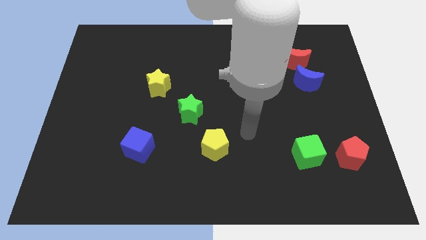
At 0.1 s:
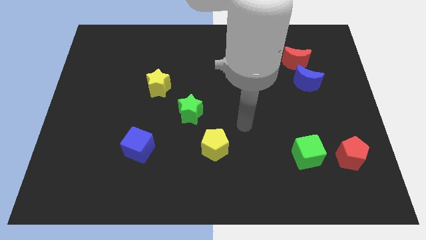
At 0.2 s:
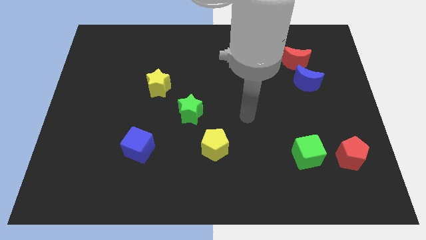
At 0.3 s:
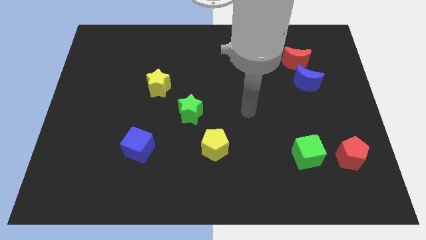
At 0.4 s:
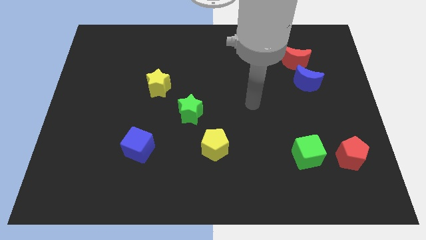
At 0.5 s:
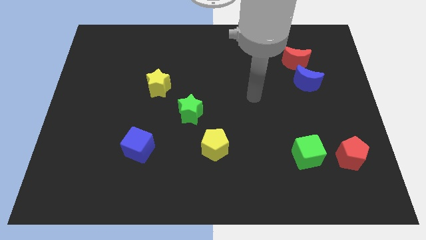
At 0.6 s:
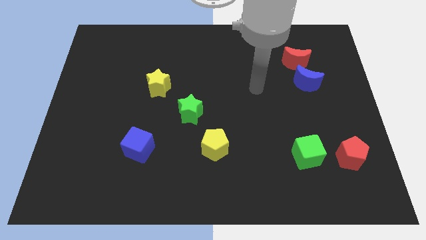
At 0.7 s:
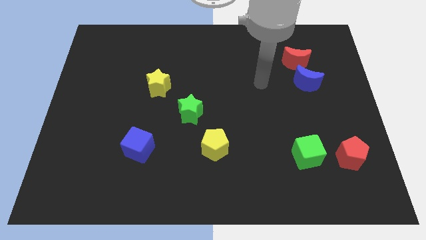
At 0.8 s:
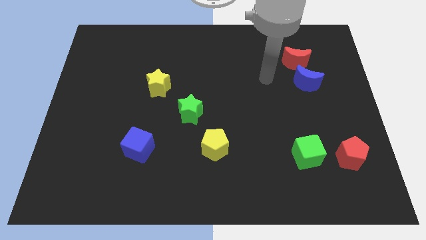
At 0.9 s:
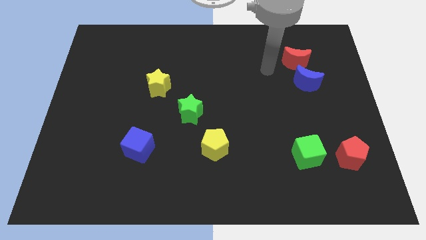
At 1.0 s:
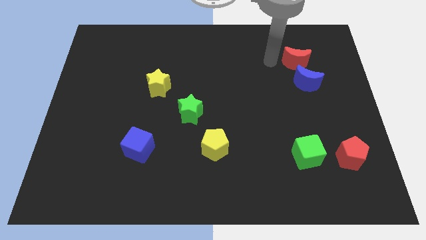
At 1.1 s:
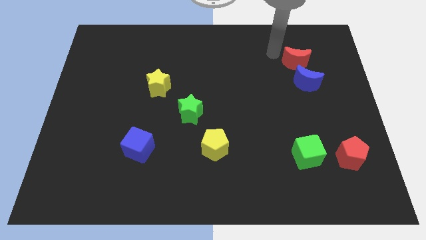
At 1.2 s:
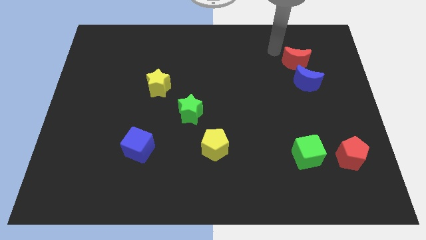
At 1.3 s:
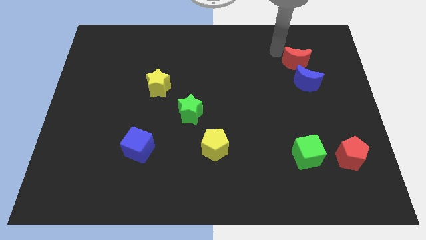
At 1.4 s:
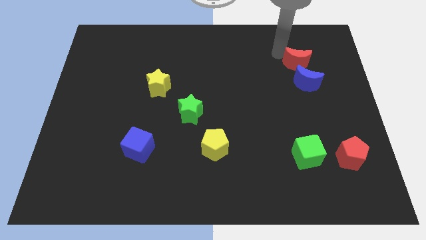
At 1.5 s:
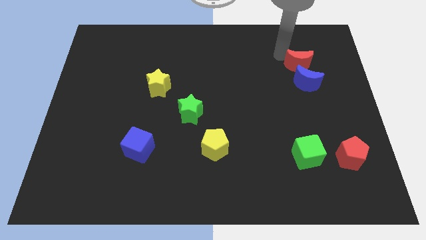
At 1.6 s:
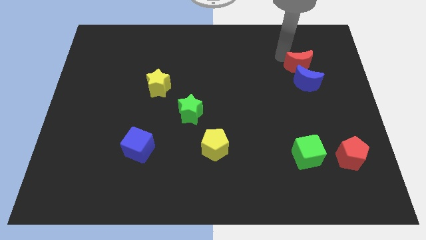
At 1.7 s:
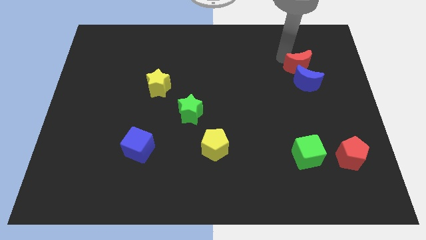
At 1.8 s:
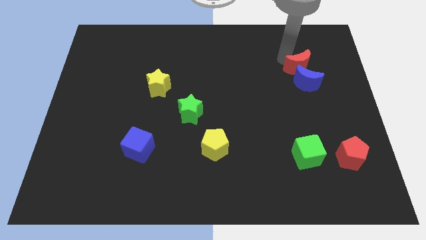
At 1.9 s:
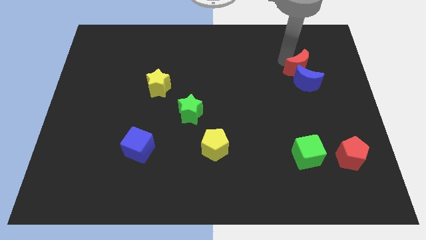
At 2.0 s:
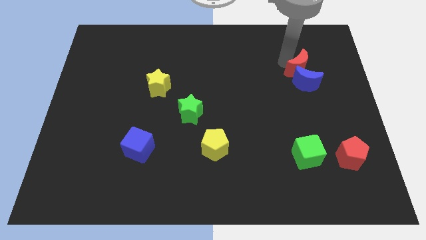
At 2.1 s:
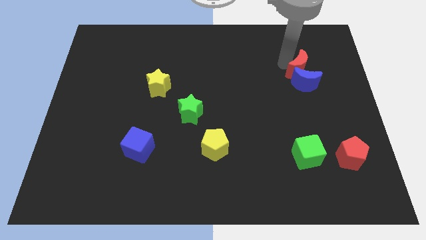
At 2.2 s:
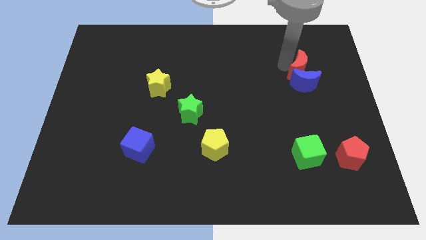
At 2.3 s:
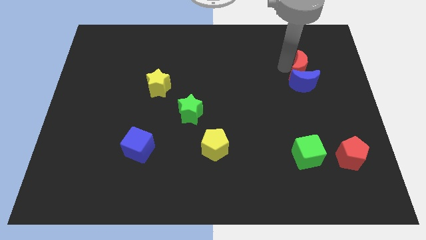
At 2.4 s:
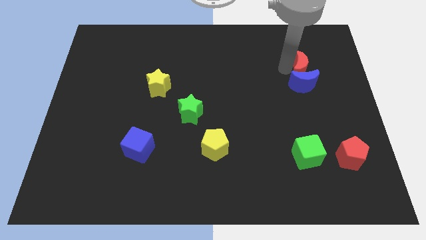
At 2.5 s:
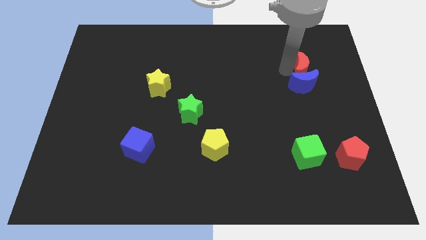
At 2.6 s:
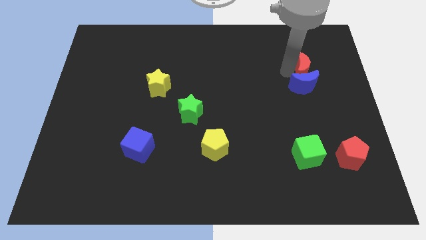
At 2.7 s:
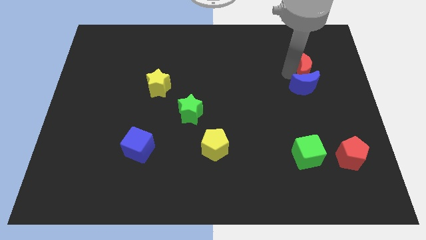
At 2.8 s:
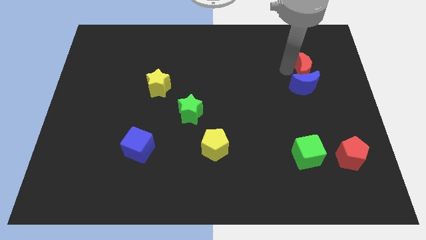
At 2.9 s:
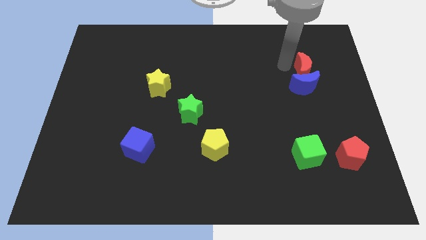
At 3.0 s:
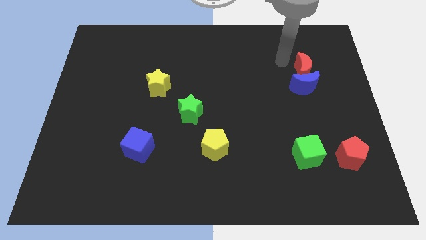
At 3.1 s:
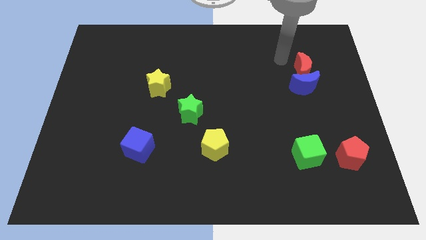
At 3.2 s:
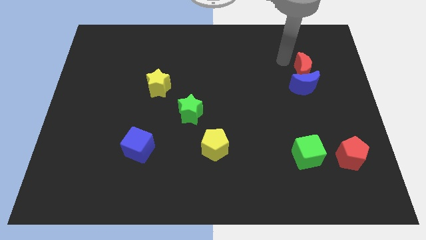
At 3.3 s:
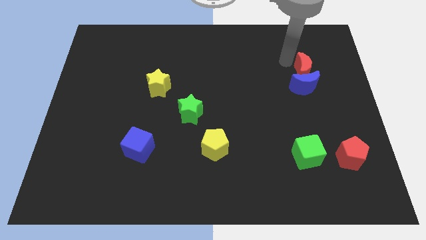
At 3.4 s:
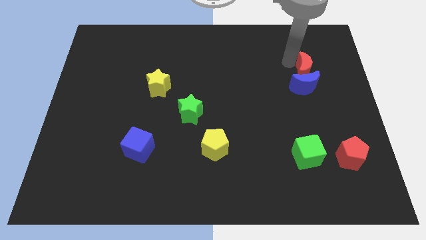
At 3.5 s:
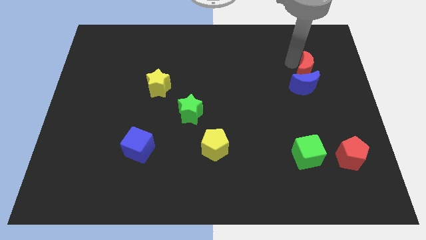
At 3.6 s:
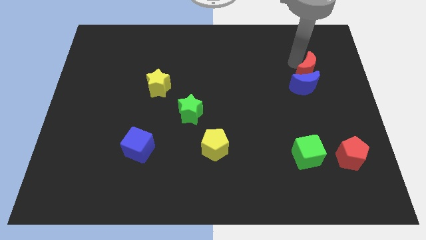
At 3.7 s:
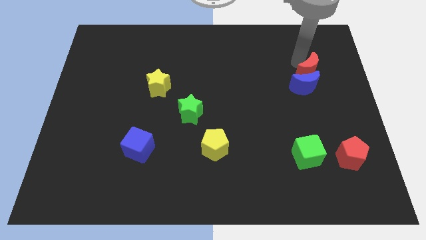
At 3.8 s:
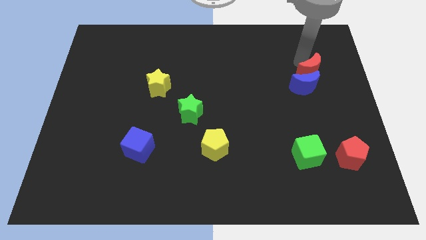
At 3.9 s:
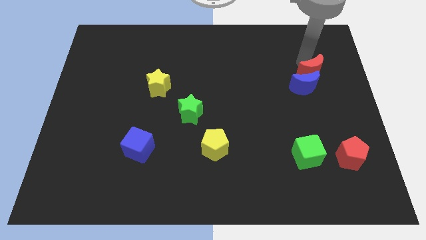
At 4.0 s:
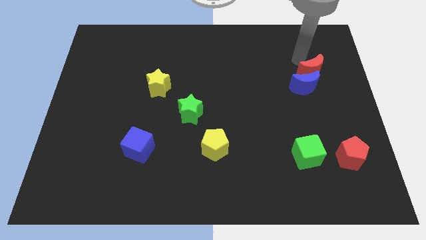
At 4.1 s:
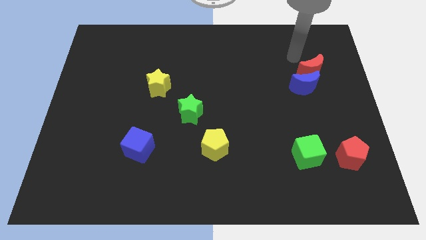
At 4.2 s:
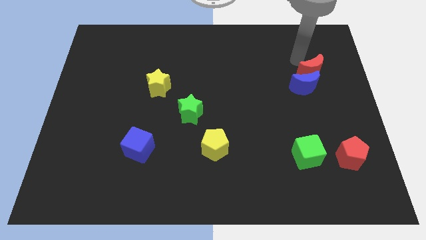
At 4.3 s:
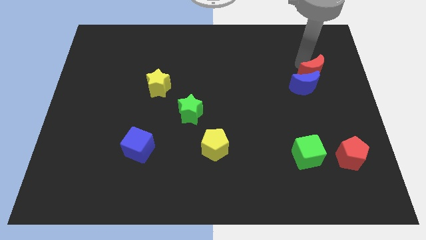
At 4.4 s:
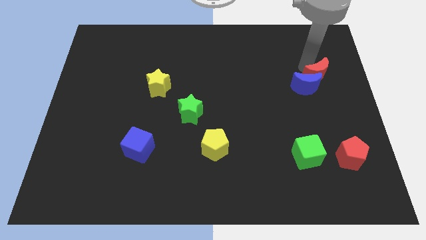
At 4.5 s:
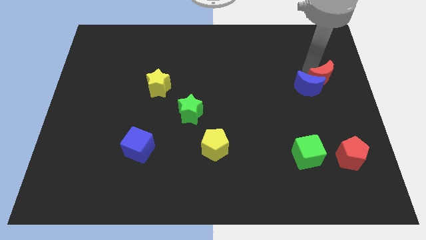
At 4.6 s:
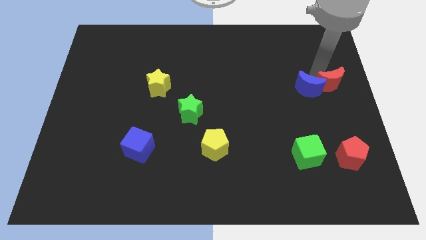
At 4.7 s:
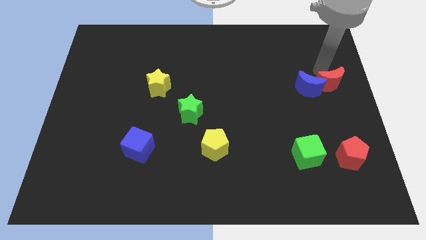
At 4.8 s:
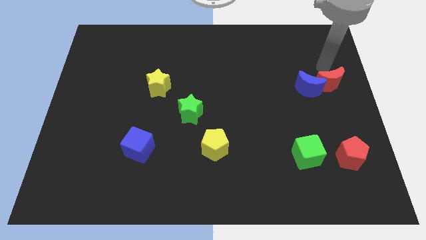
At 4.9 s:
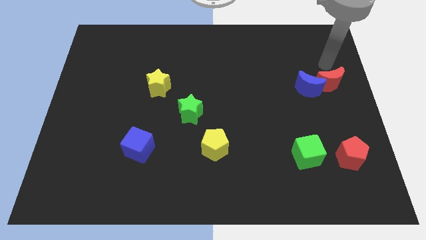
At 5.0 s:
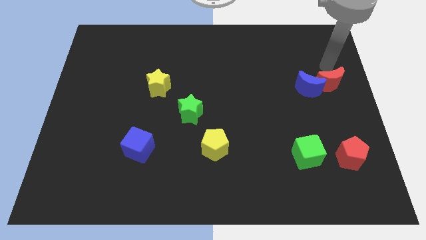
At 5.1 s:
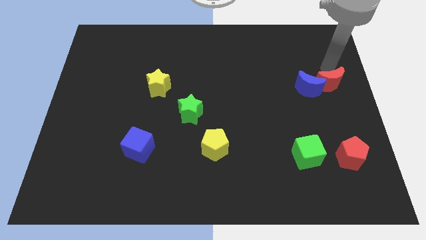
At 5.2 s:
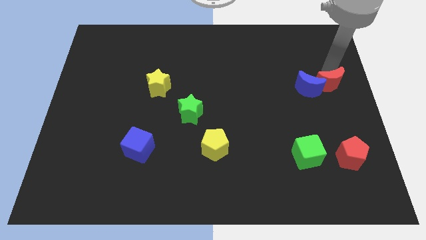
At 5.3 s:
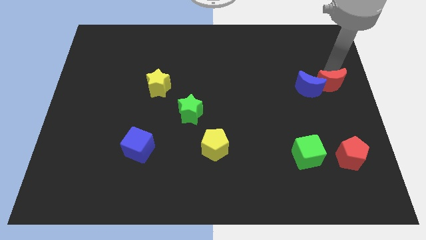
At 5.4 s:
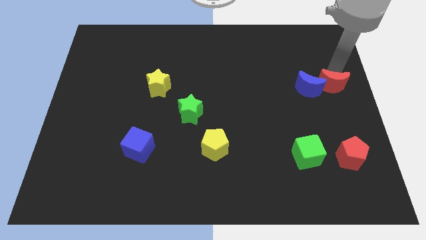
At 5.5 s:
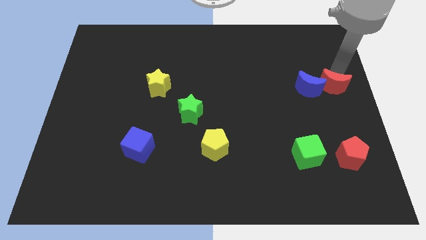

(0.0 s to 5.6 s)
push the red moon to the bottom right side of the blue moon

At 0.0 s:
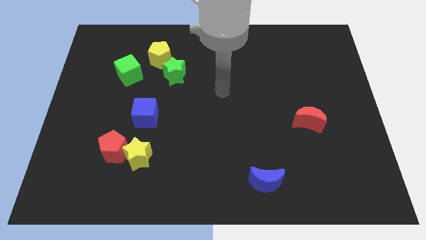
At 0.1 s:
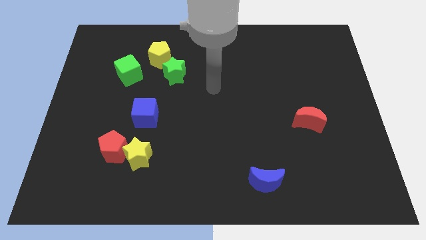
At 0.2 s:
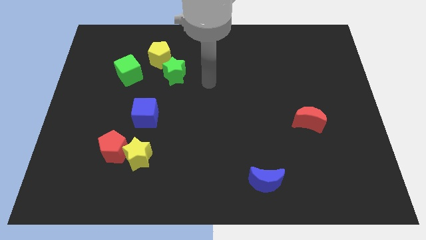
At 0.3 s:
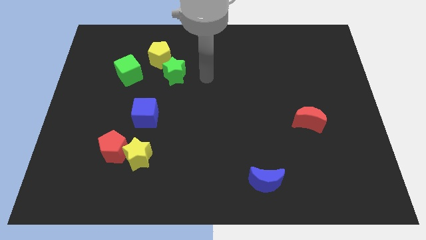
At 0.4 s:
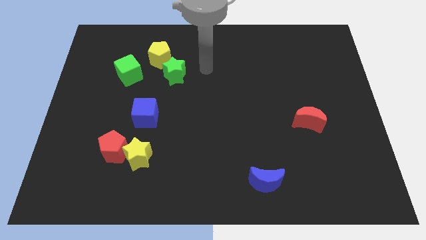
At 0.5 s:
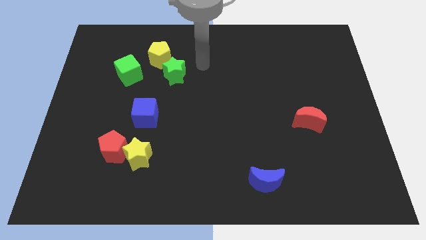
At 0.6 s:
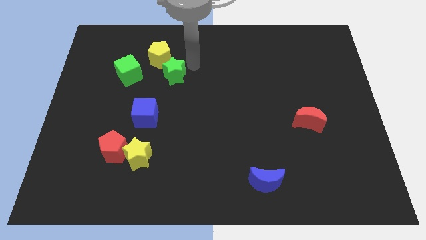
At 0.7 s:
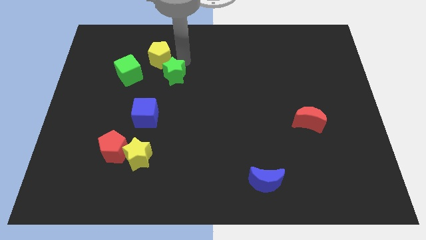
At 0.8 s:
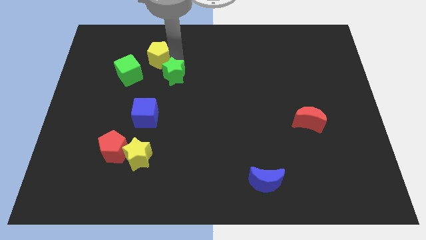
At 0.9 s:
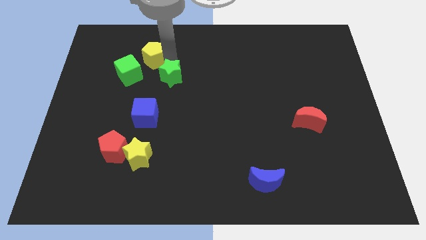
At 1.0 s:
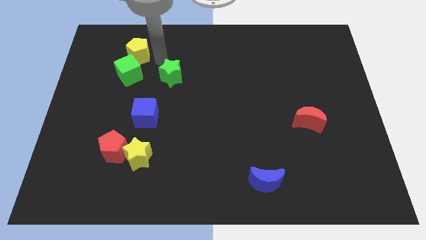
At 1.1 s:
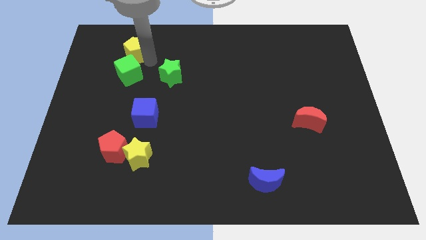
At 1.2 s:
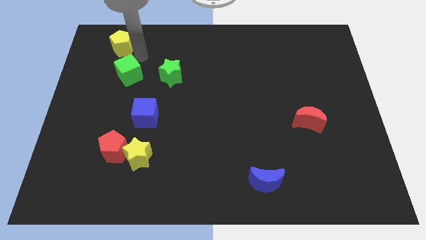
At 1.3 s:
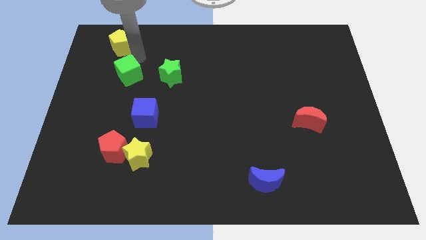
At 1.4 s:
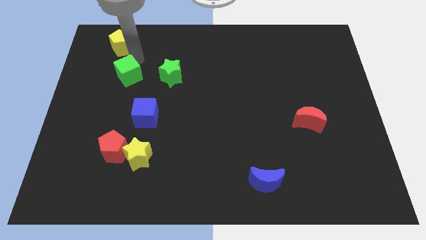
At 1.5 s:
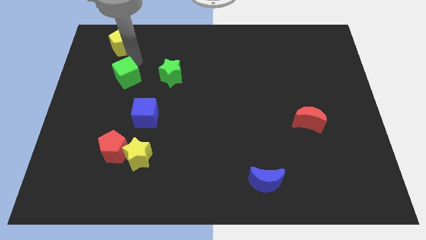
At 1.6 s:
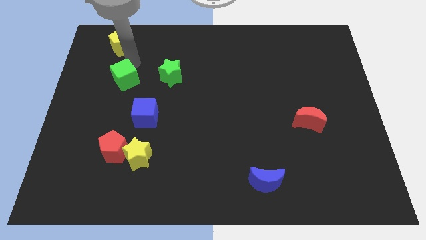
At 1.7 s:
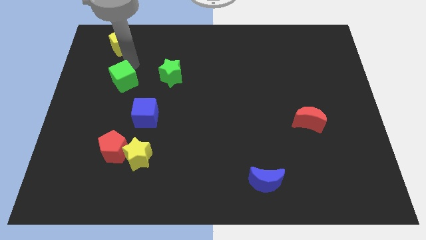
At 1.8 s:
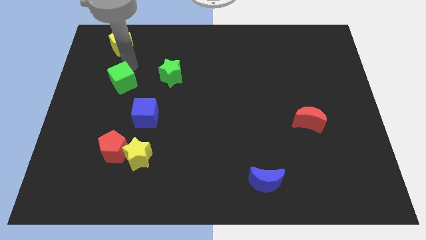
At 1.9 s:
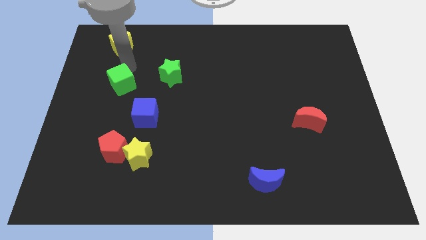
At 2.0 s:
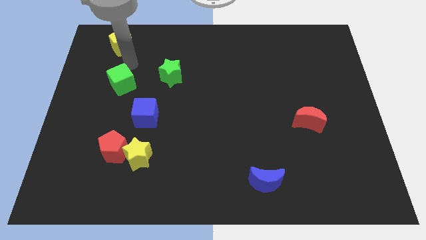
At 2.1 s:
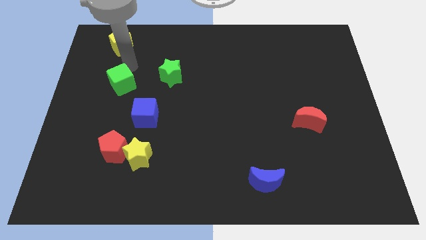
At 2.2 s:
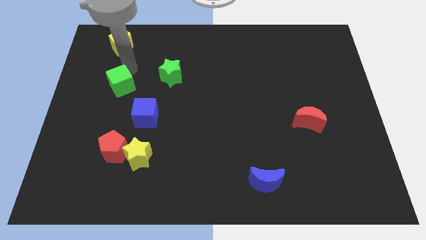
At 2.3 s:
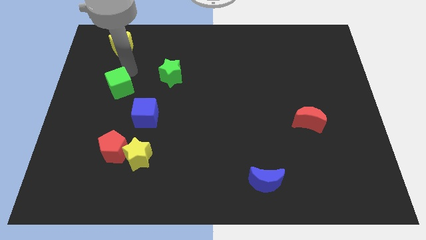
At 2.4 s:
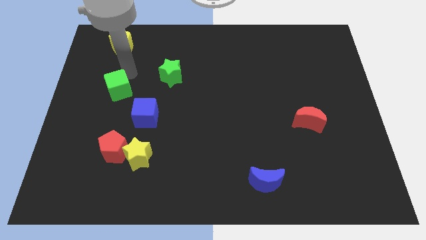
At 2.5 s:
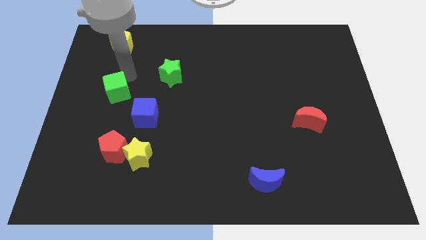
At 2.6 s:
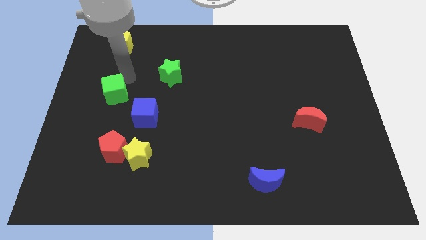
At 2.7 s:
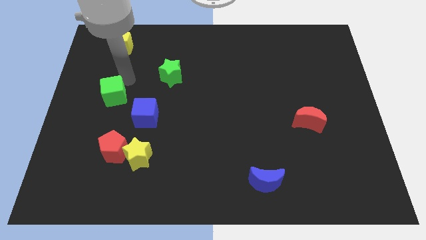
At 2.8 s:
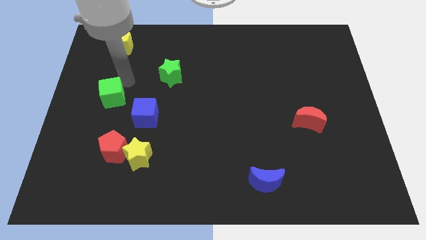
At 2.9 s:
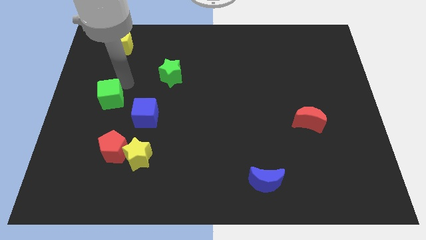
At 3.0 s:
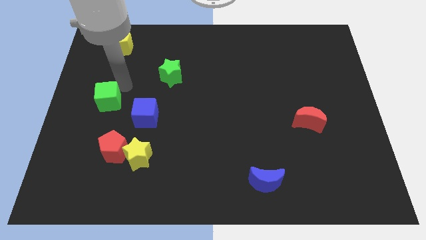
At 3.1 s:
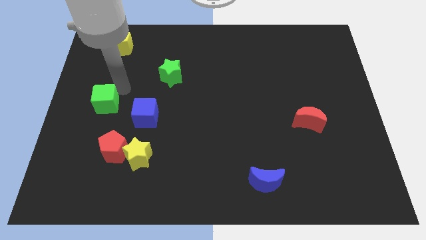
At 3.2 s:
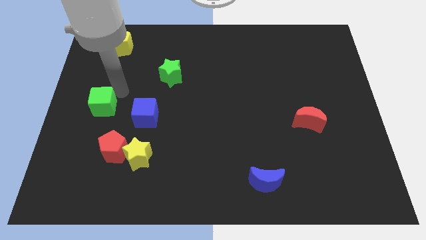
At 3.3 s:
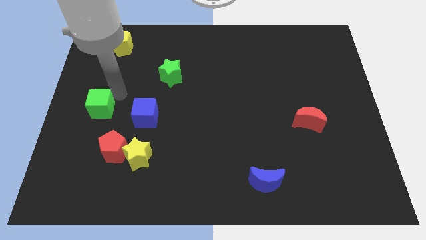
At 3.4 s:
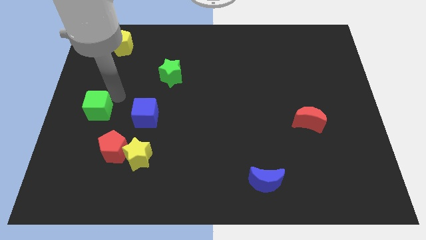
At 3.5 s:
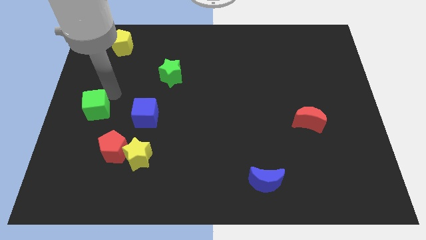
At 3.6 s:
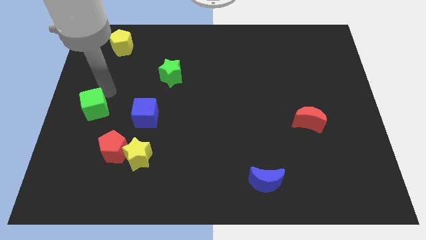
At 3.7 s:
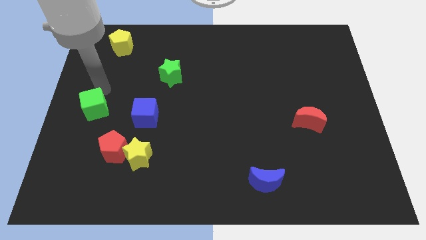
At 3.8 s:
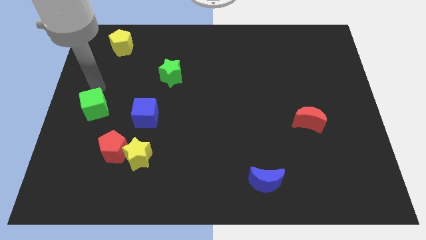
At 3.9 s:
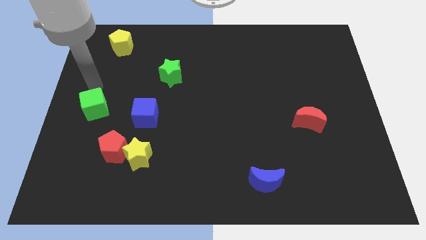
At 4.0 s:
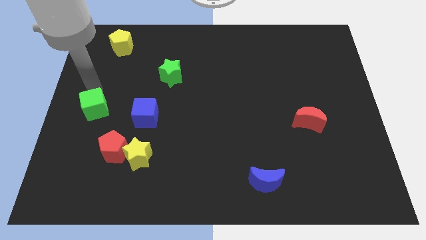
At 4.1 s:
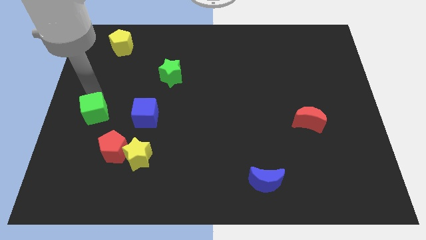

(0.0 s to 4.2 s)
slide the green cube to the top left side of the red pentagon
